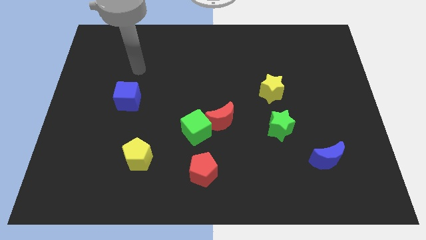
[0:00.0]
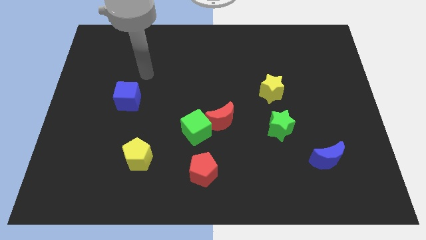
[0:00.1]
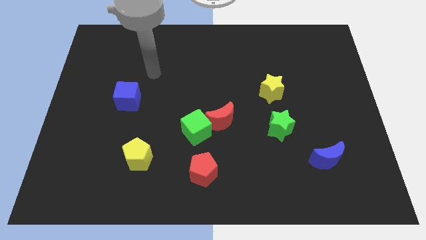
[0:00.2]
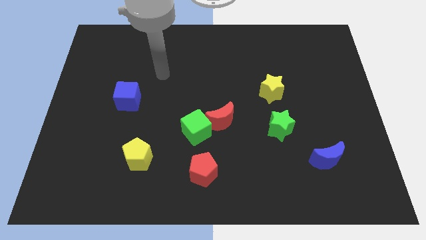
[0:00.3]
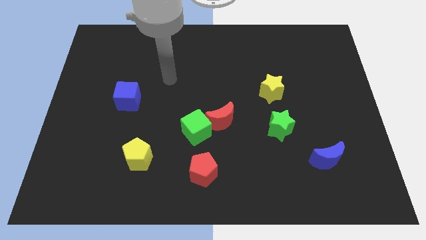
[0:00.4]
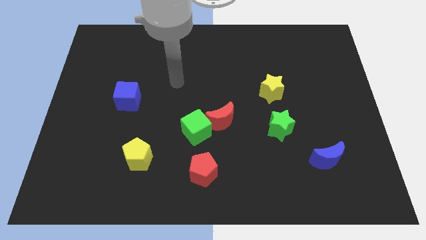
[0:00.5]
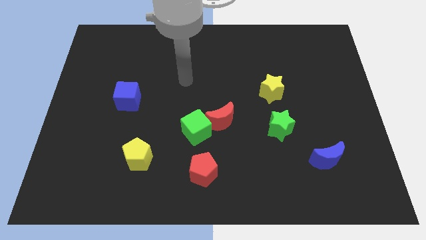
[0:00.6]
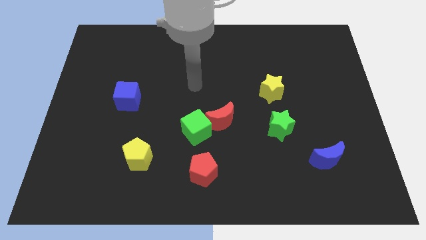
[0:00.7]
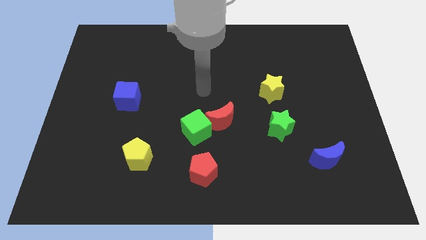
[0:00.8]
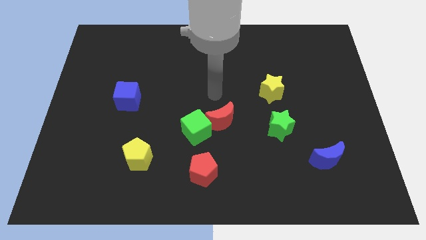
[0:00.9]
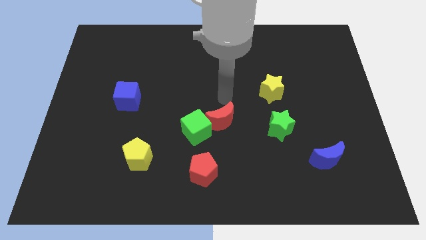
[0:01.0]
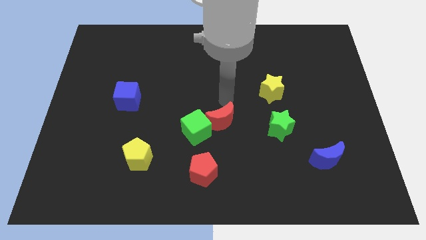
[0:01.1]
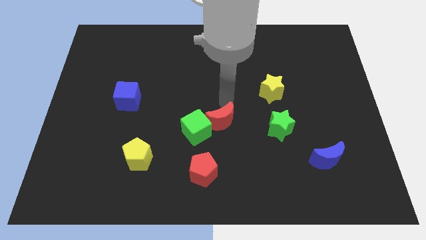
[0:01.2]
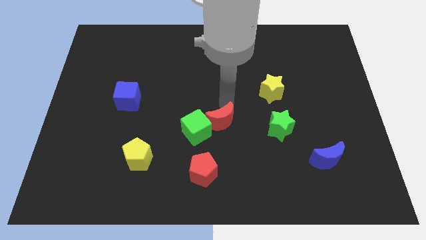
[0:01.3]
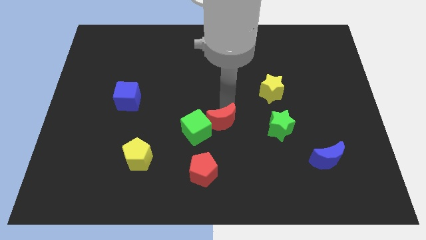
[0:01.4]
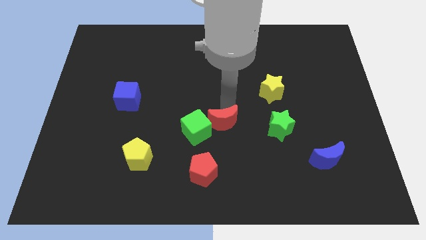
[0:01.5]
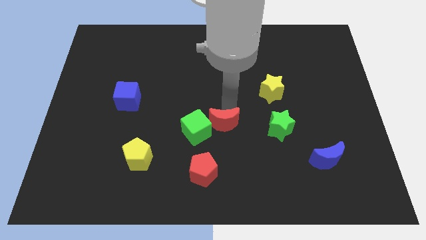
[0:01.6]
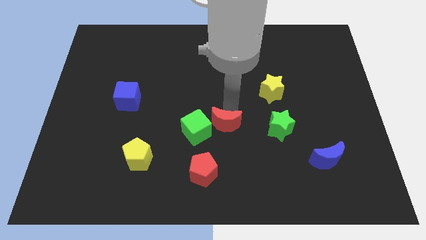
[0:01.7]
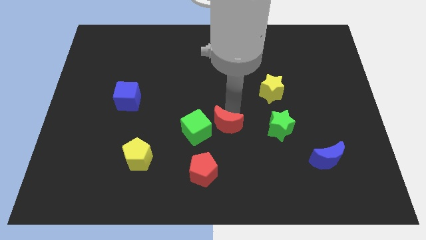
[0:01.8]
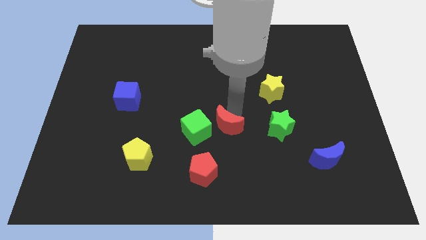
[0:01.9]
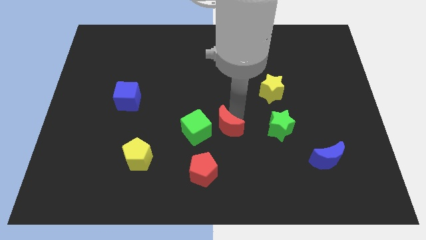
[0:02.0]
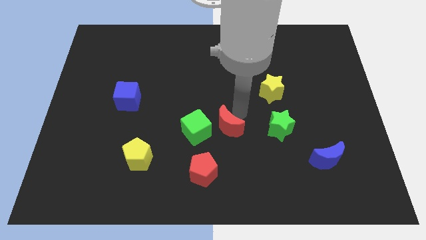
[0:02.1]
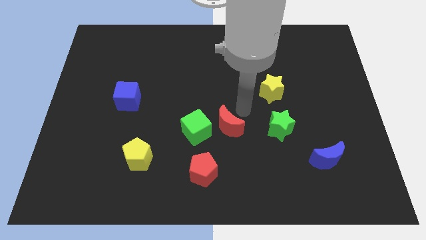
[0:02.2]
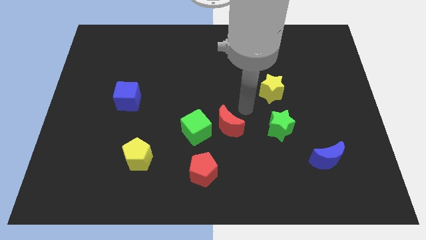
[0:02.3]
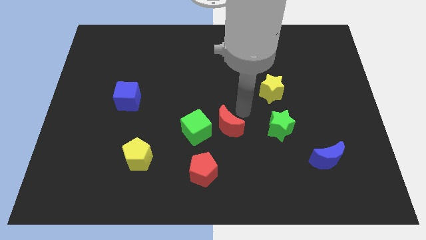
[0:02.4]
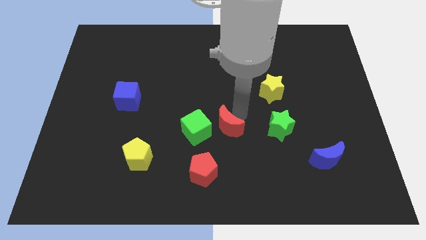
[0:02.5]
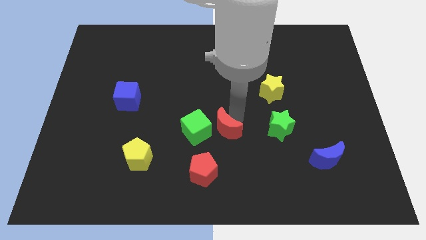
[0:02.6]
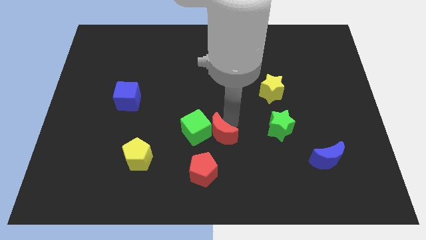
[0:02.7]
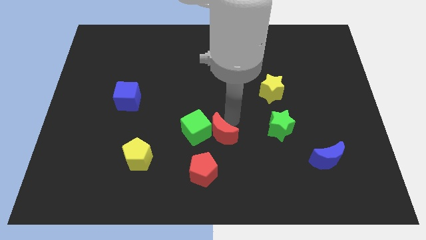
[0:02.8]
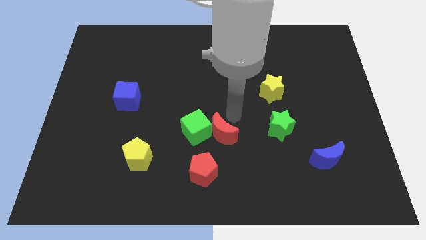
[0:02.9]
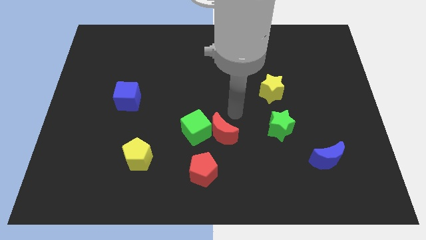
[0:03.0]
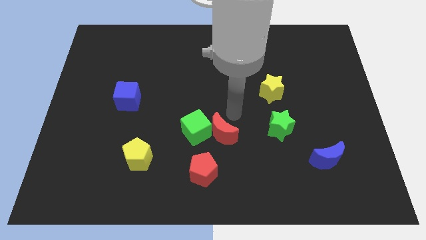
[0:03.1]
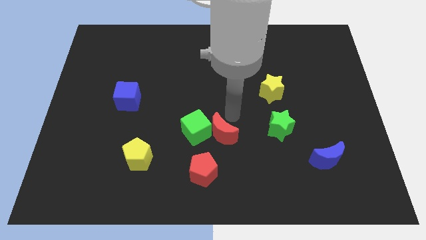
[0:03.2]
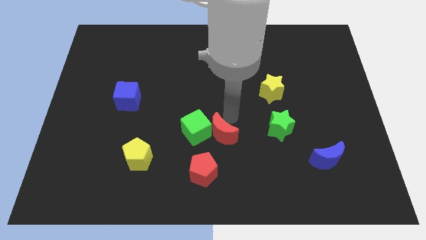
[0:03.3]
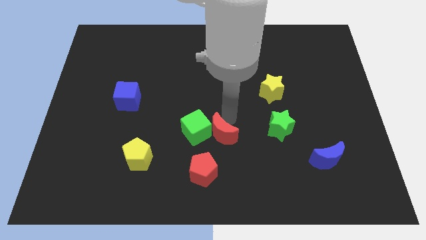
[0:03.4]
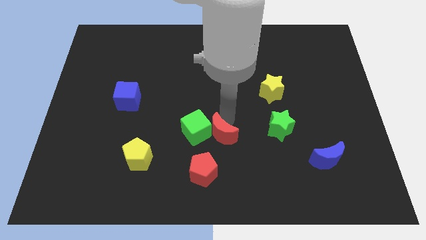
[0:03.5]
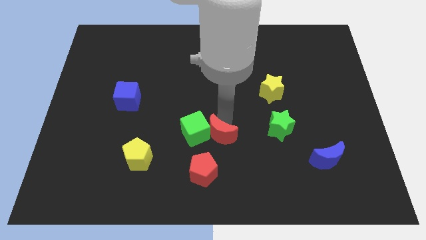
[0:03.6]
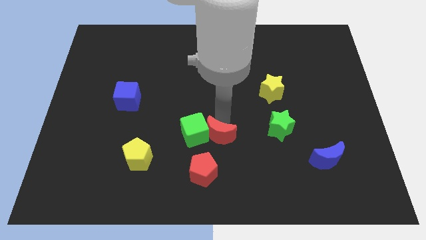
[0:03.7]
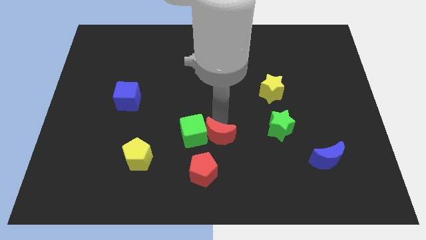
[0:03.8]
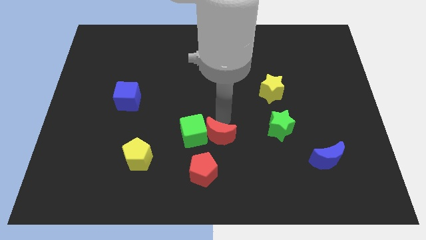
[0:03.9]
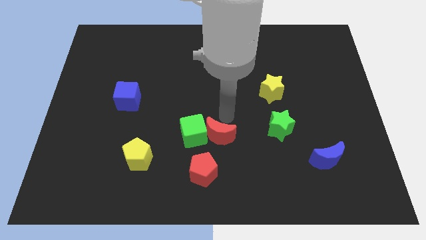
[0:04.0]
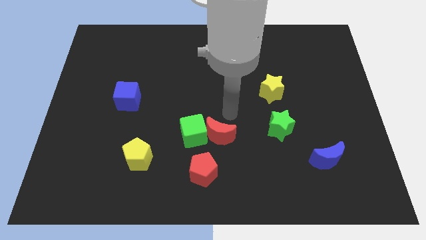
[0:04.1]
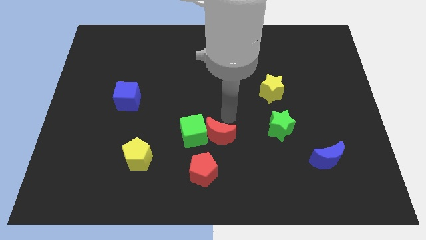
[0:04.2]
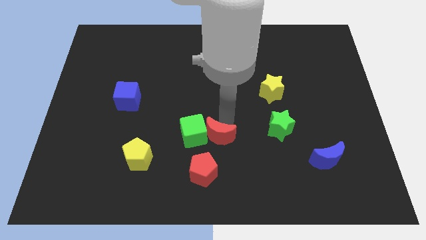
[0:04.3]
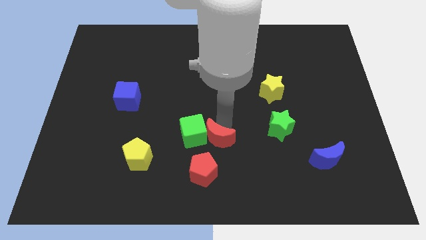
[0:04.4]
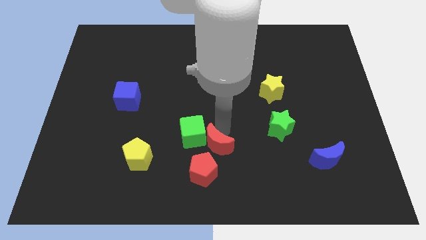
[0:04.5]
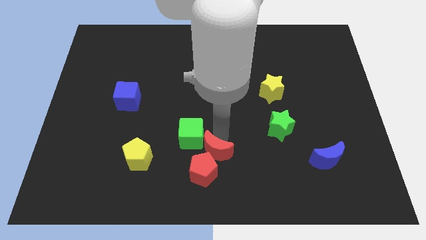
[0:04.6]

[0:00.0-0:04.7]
push the red moon to the red pentagon

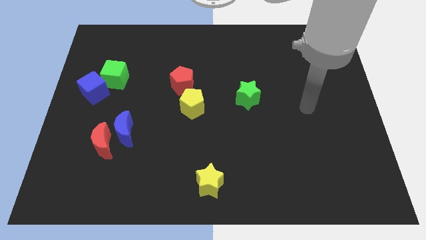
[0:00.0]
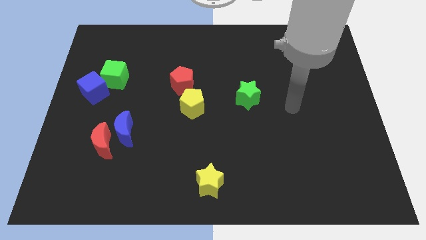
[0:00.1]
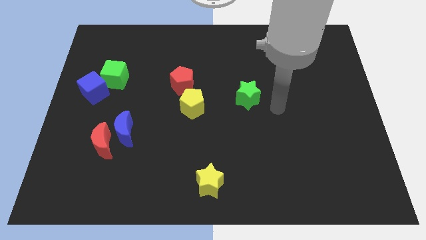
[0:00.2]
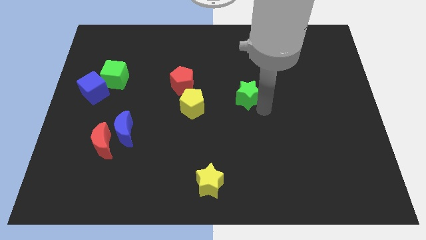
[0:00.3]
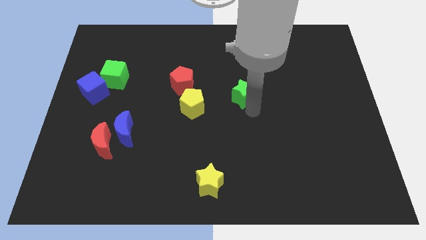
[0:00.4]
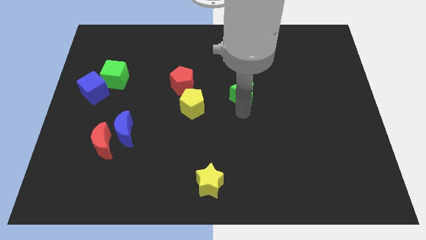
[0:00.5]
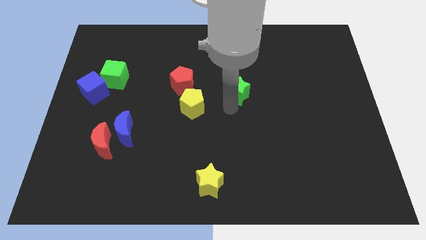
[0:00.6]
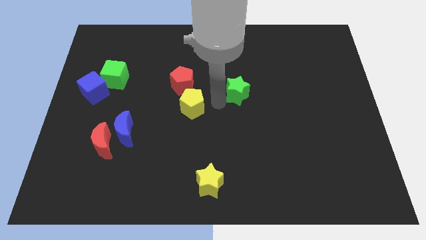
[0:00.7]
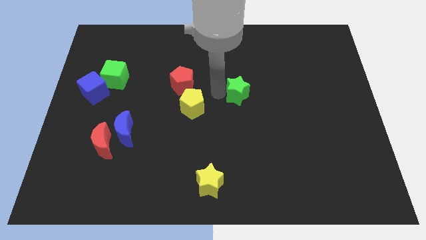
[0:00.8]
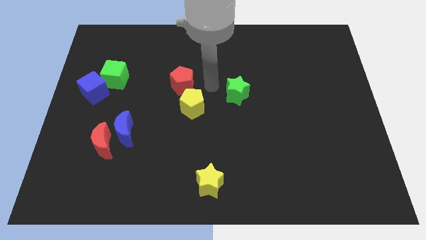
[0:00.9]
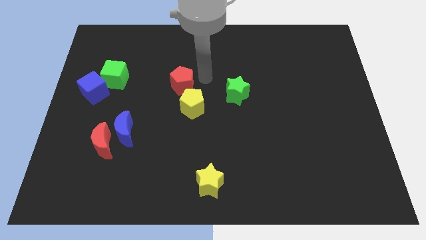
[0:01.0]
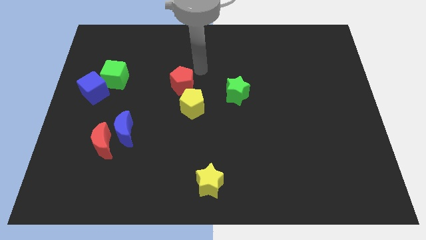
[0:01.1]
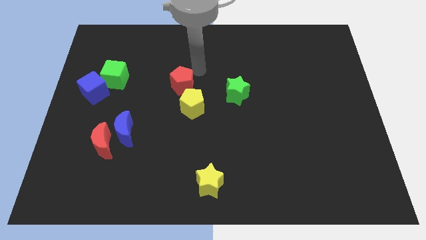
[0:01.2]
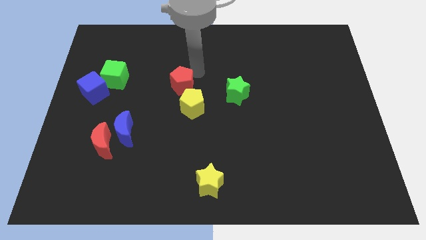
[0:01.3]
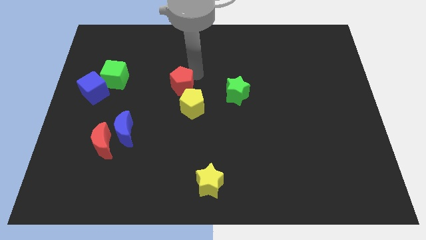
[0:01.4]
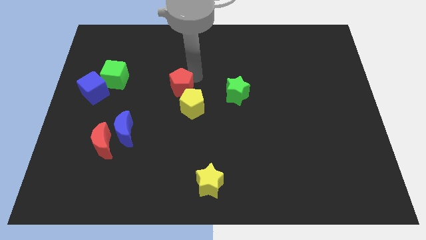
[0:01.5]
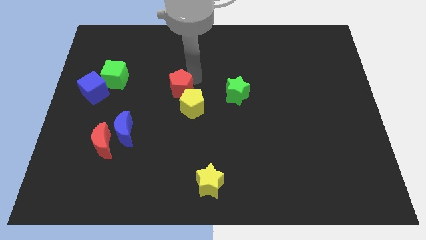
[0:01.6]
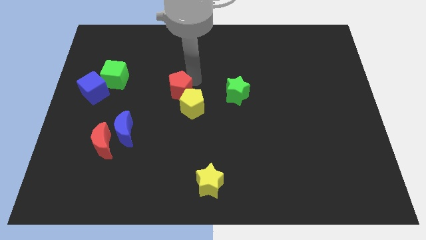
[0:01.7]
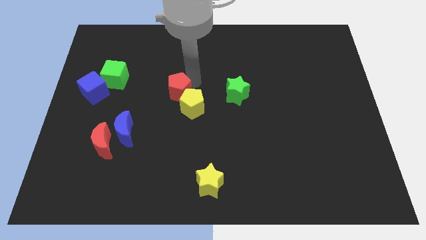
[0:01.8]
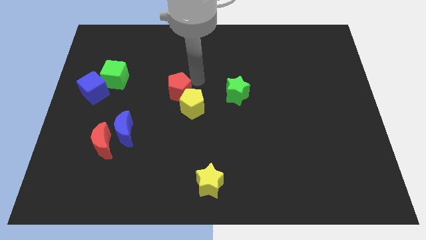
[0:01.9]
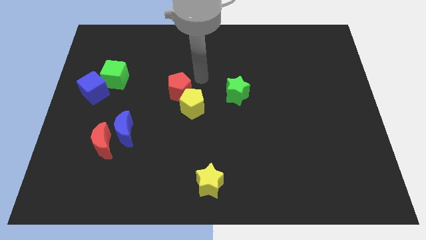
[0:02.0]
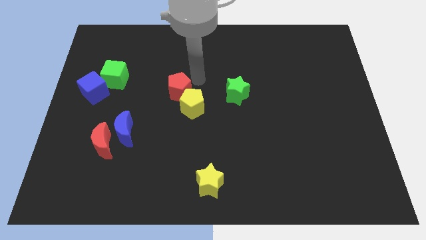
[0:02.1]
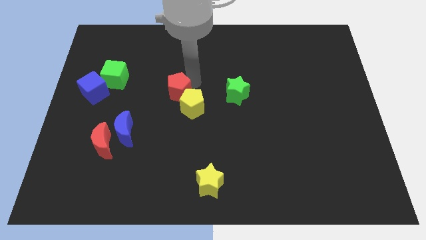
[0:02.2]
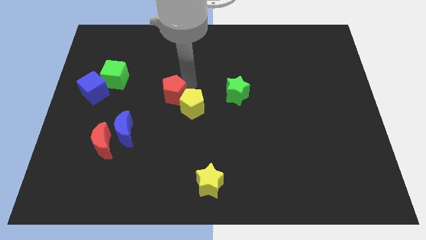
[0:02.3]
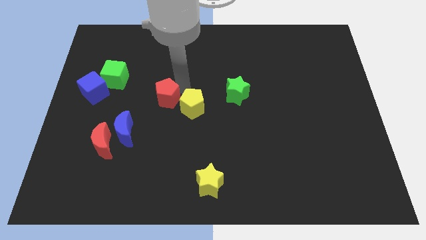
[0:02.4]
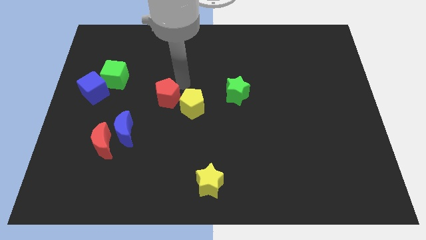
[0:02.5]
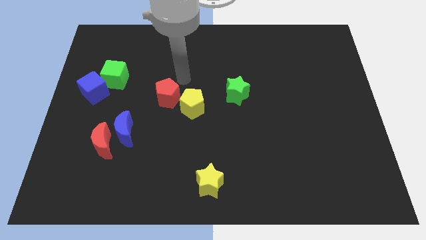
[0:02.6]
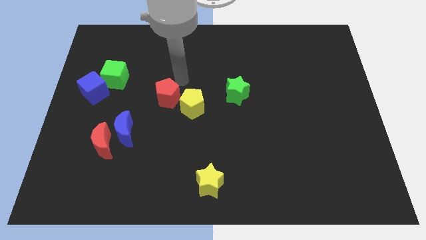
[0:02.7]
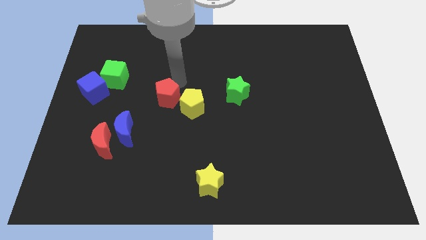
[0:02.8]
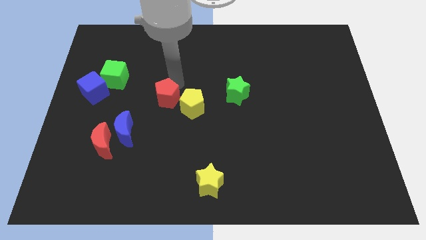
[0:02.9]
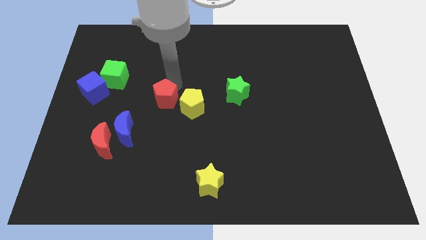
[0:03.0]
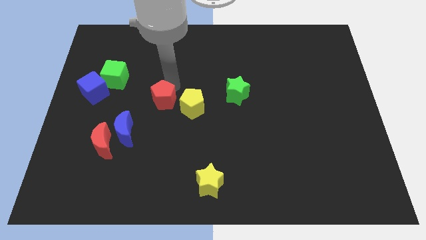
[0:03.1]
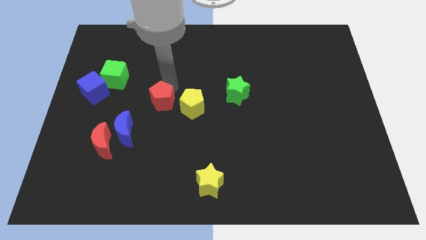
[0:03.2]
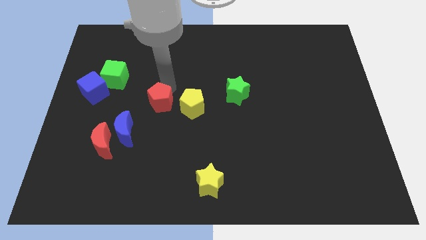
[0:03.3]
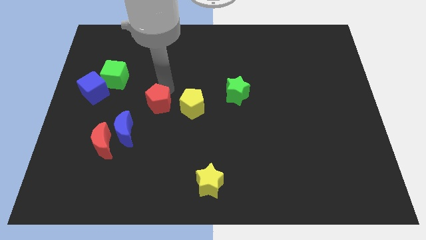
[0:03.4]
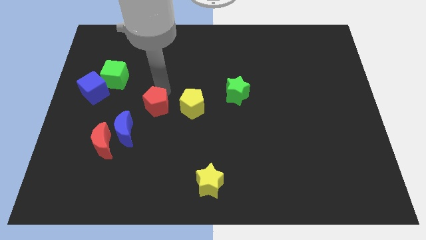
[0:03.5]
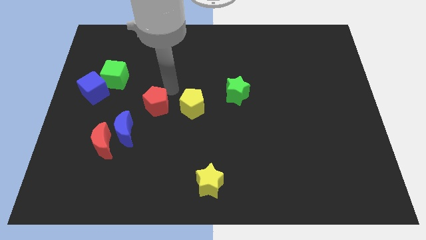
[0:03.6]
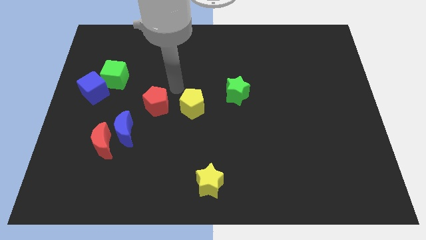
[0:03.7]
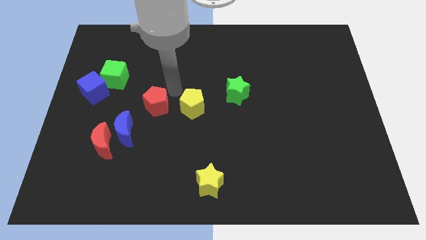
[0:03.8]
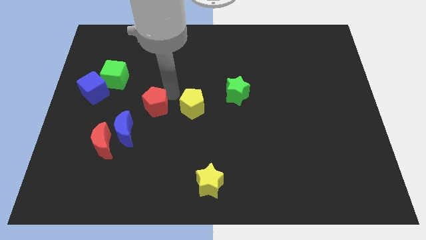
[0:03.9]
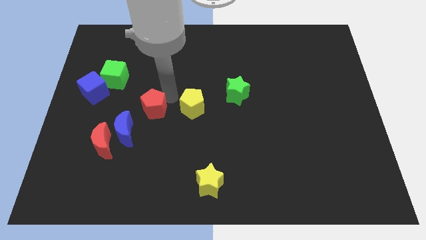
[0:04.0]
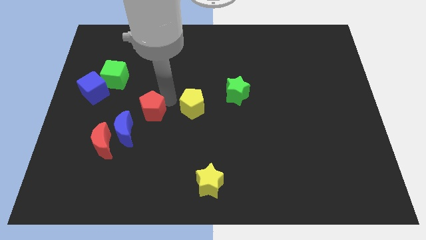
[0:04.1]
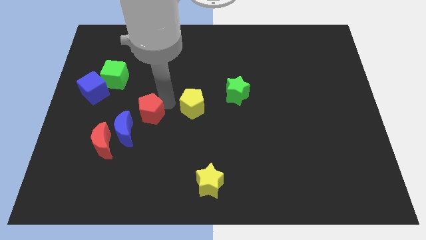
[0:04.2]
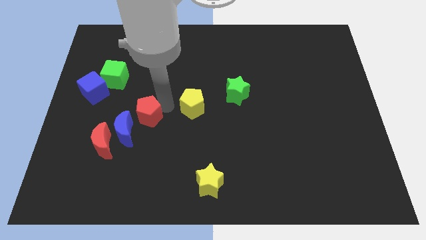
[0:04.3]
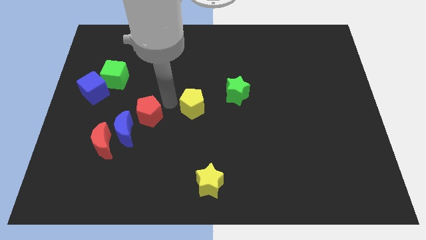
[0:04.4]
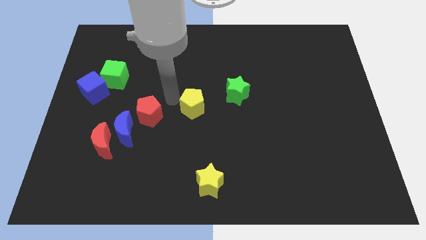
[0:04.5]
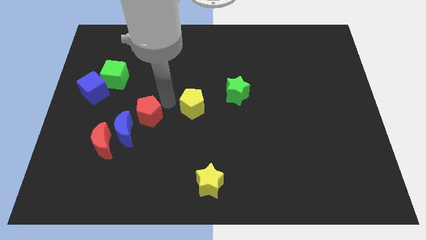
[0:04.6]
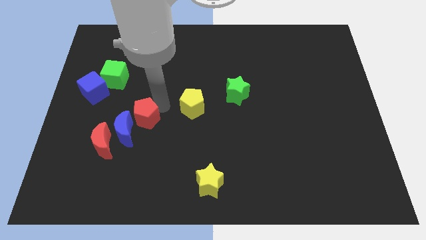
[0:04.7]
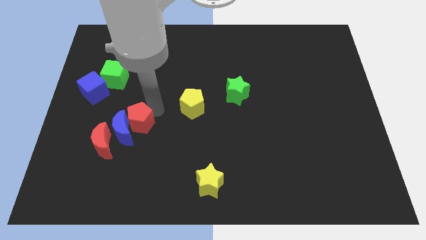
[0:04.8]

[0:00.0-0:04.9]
slide the red pentagon towards the blue moon
